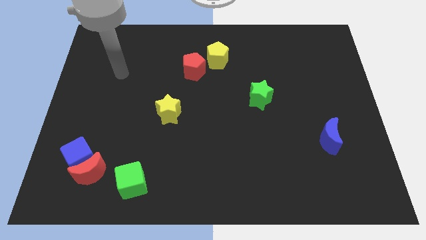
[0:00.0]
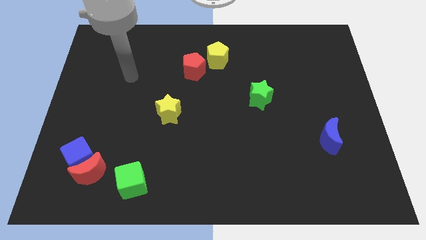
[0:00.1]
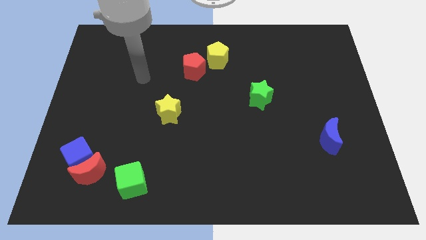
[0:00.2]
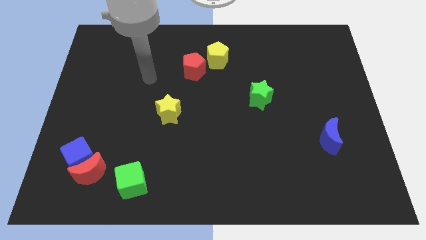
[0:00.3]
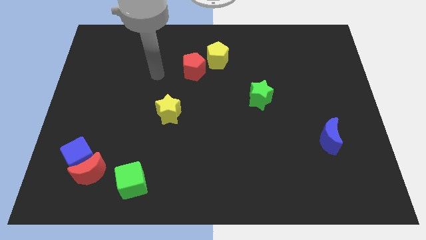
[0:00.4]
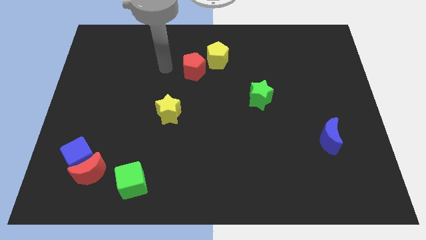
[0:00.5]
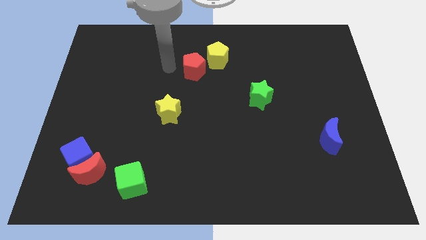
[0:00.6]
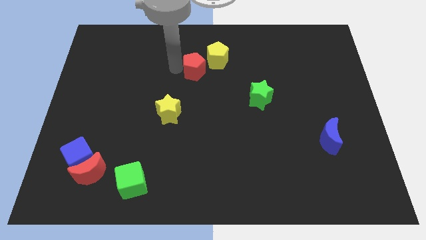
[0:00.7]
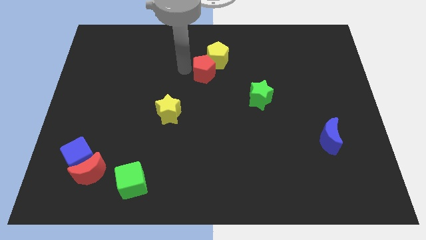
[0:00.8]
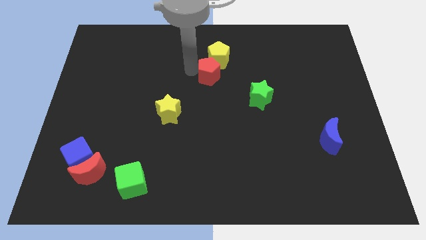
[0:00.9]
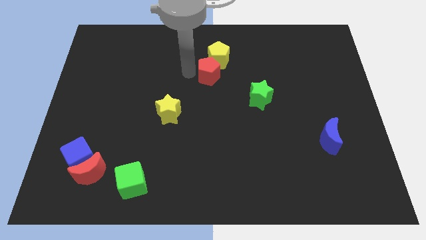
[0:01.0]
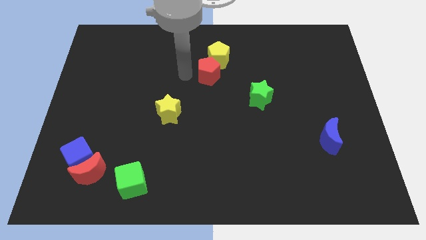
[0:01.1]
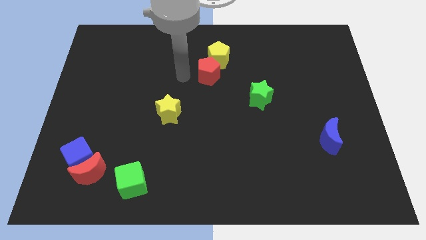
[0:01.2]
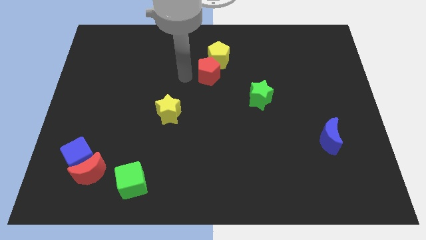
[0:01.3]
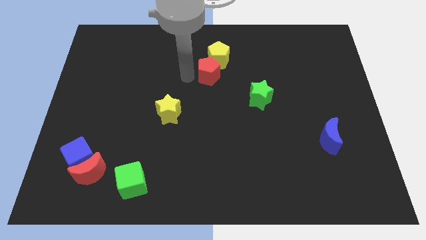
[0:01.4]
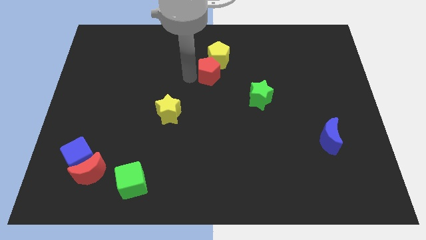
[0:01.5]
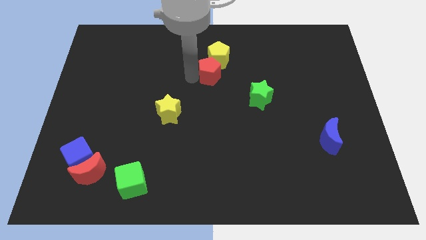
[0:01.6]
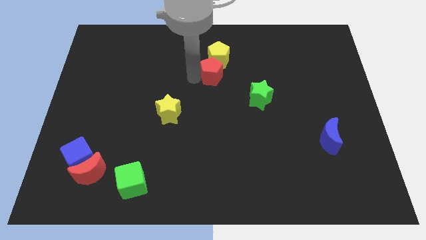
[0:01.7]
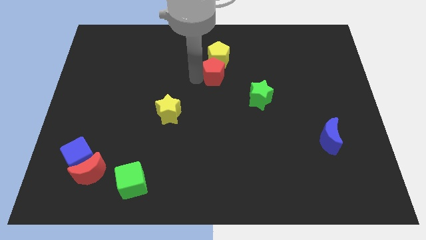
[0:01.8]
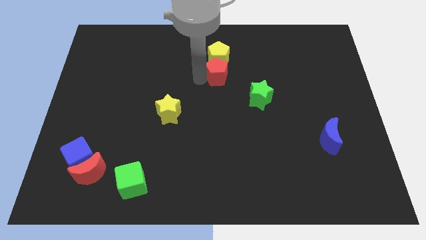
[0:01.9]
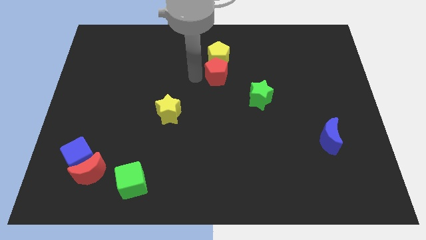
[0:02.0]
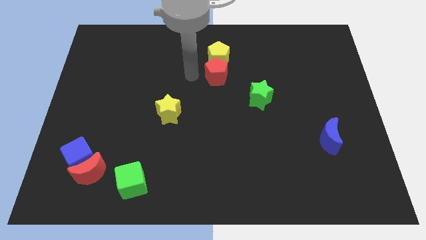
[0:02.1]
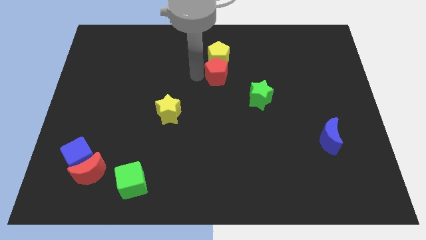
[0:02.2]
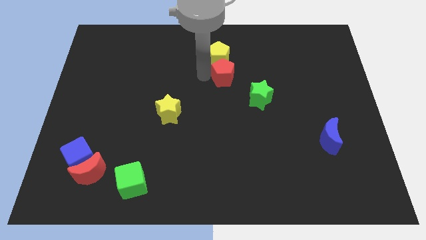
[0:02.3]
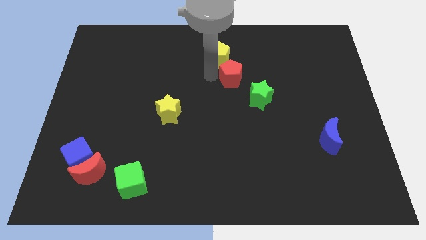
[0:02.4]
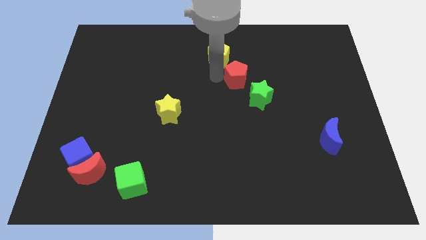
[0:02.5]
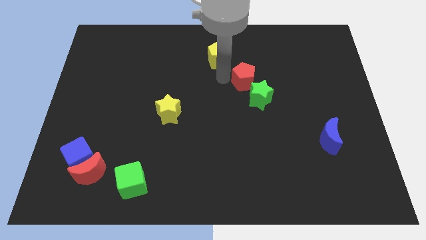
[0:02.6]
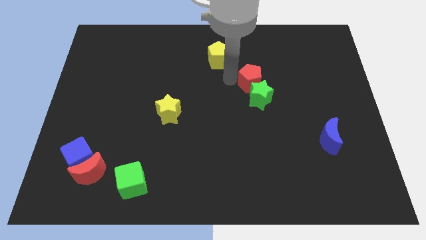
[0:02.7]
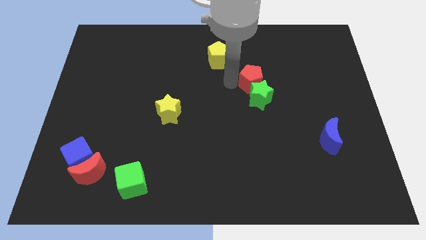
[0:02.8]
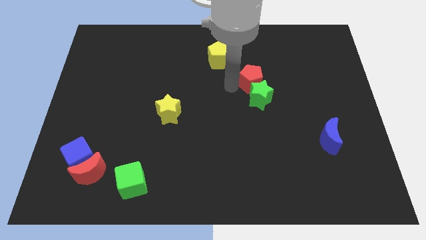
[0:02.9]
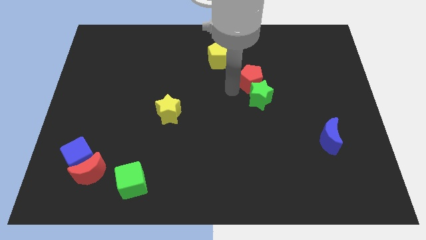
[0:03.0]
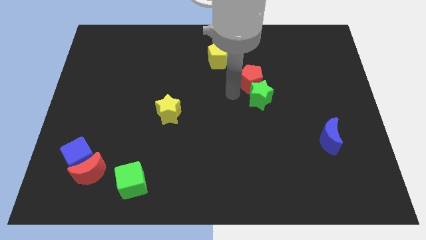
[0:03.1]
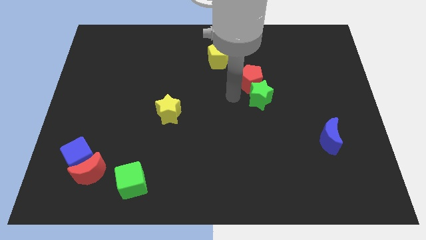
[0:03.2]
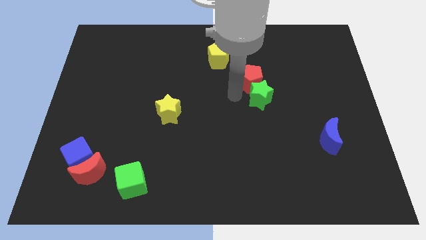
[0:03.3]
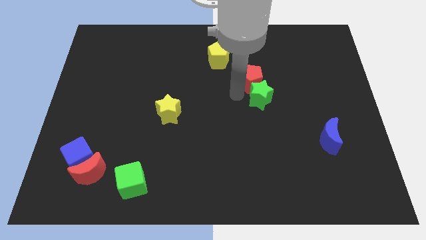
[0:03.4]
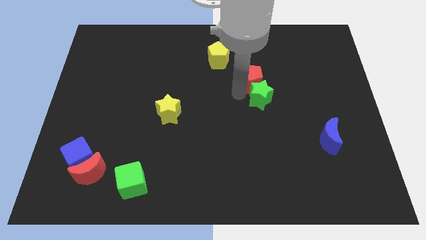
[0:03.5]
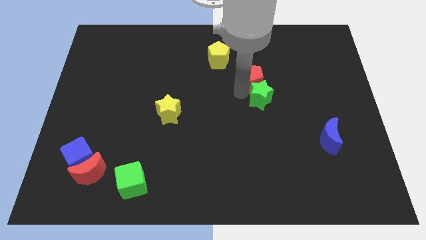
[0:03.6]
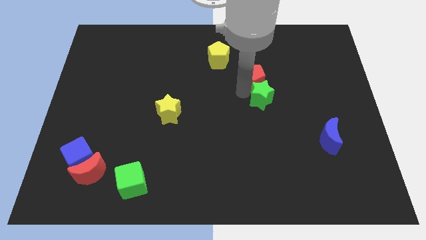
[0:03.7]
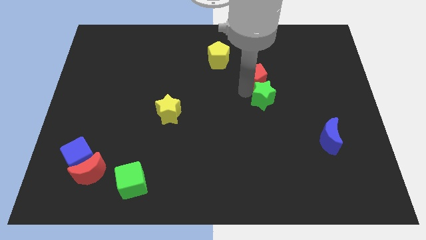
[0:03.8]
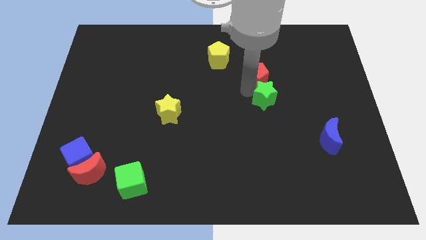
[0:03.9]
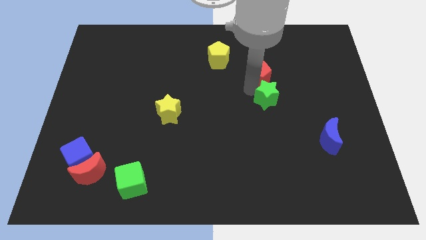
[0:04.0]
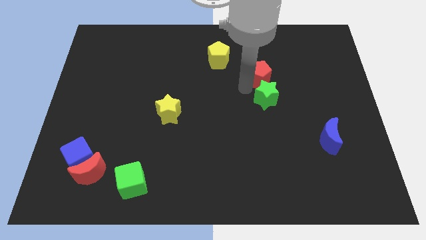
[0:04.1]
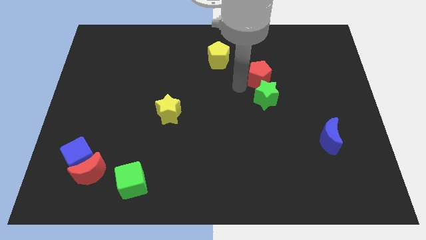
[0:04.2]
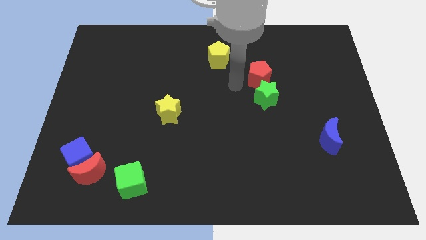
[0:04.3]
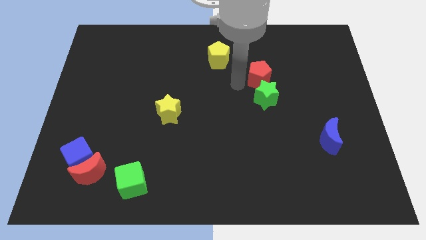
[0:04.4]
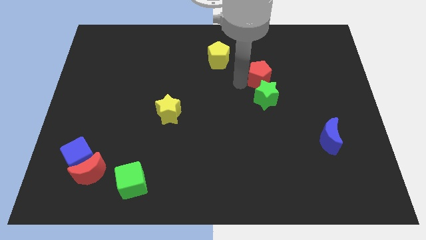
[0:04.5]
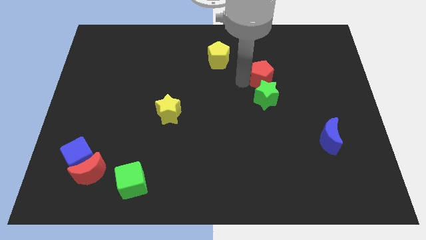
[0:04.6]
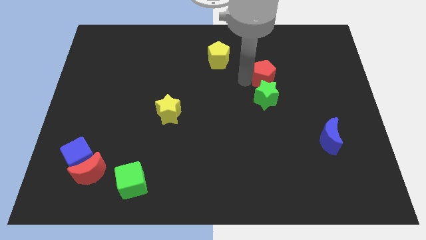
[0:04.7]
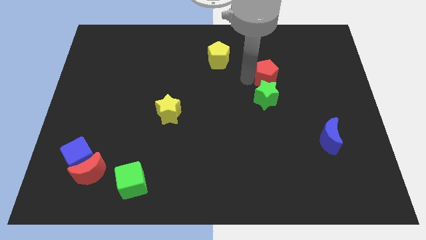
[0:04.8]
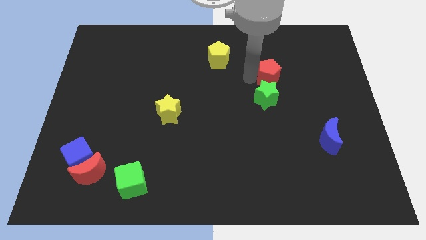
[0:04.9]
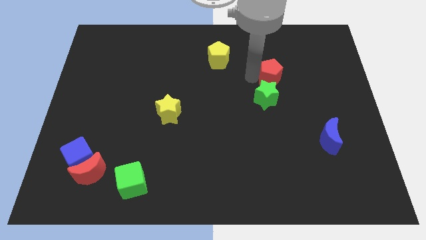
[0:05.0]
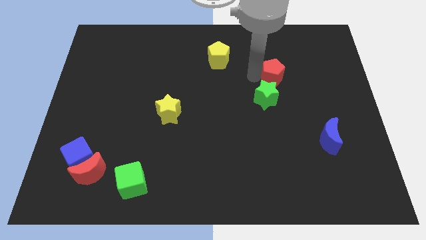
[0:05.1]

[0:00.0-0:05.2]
move the red pentagon to the right

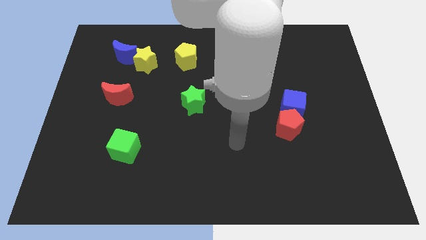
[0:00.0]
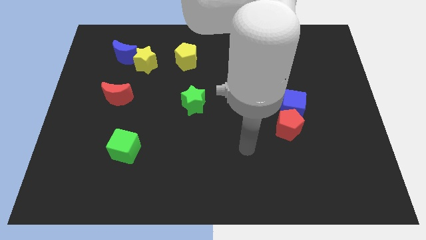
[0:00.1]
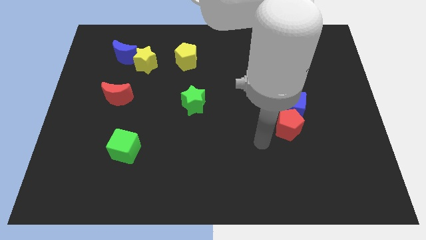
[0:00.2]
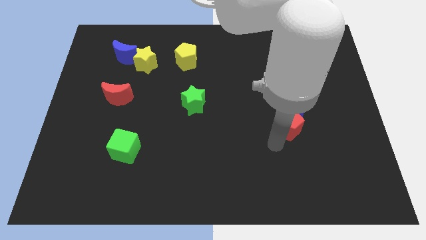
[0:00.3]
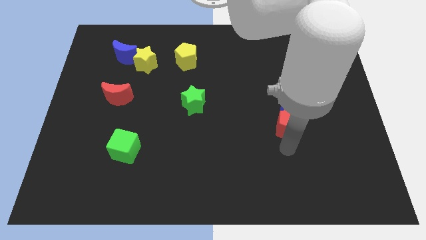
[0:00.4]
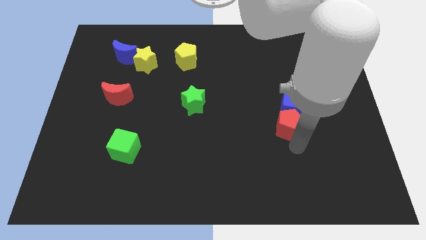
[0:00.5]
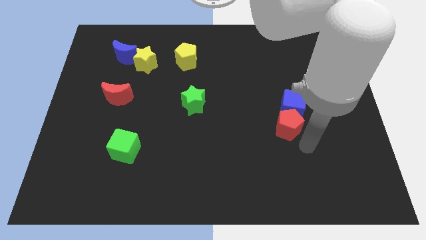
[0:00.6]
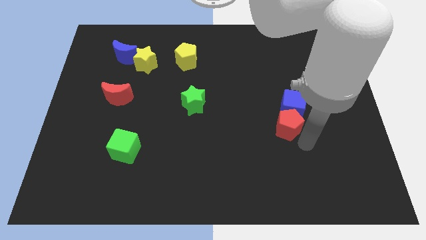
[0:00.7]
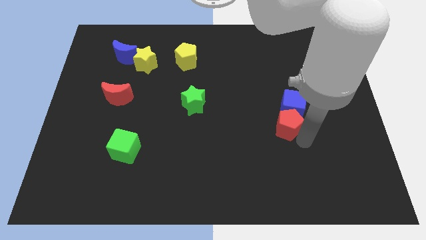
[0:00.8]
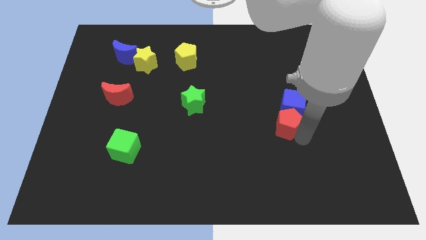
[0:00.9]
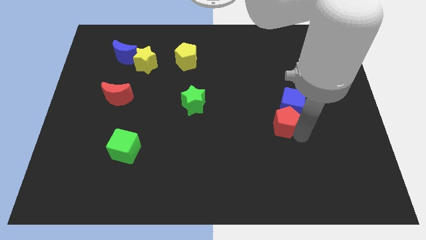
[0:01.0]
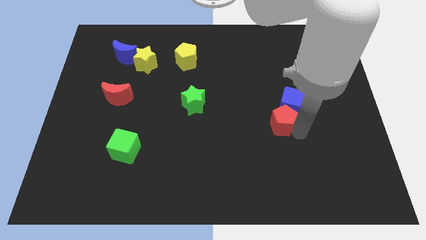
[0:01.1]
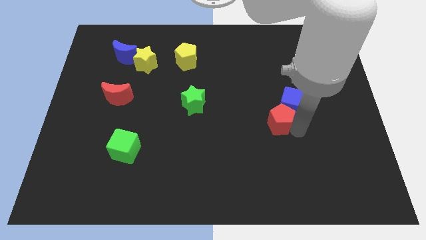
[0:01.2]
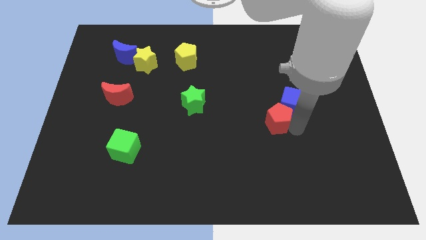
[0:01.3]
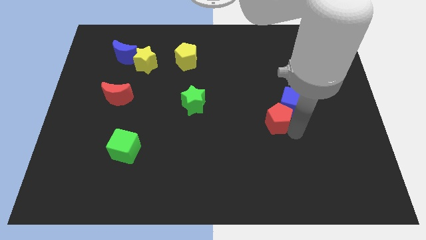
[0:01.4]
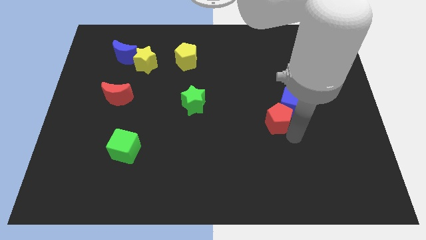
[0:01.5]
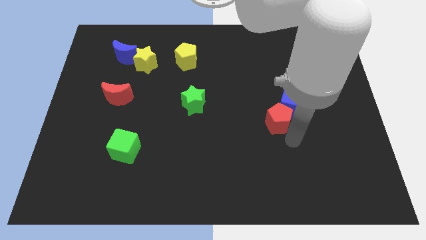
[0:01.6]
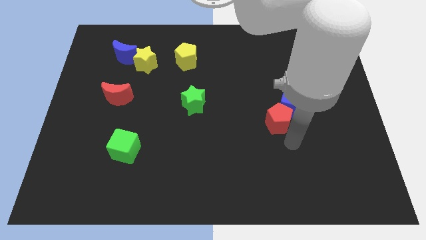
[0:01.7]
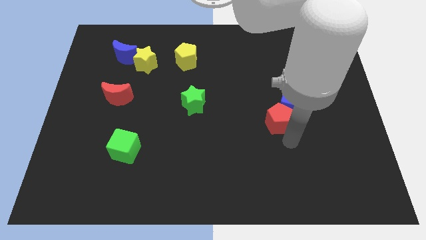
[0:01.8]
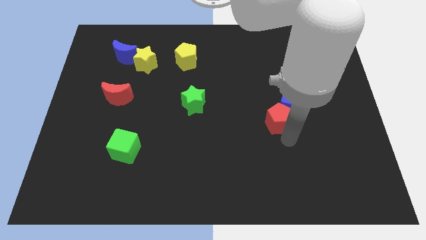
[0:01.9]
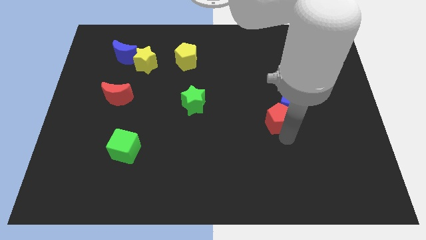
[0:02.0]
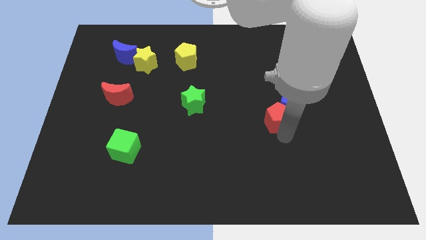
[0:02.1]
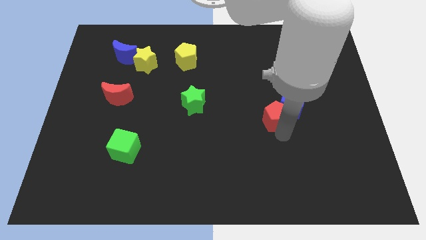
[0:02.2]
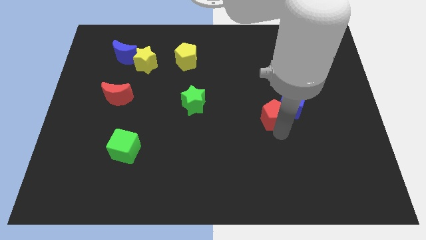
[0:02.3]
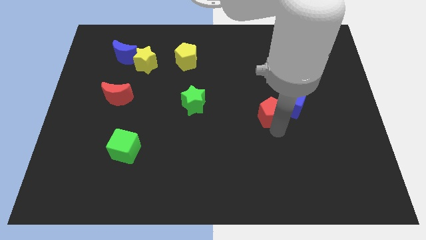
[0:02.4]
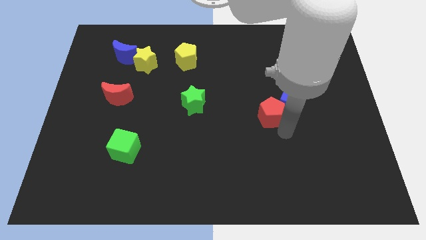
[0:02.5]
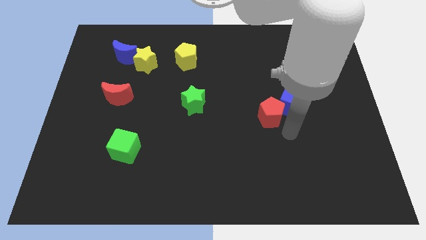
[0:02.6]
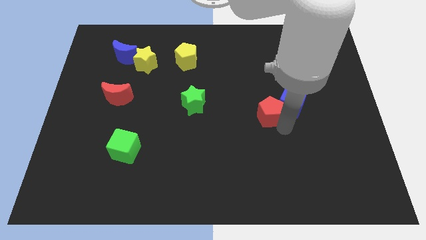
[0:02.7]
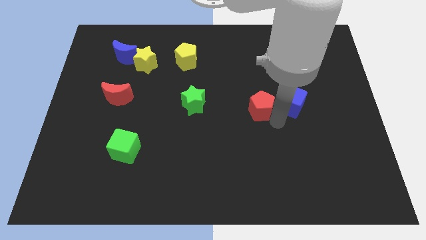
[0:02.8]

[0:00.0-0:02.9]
slightly move the red pentagon upwards and then to the left

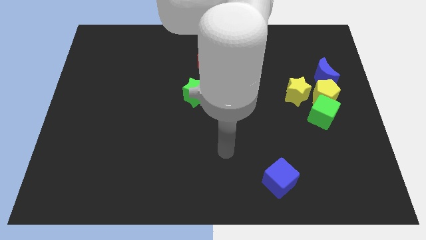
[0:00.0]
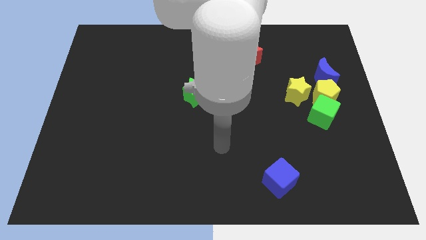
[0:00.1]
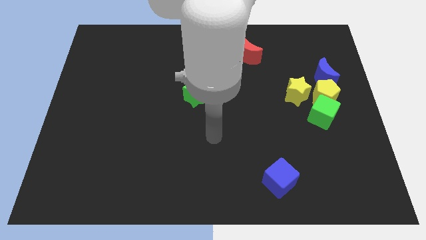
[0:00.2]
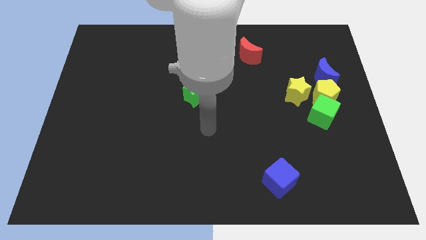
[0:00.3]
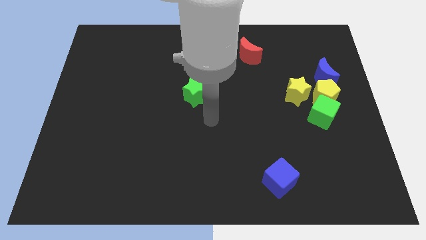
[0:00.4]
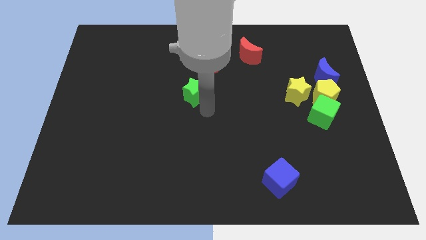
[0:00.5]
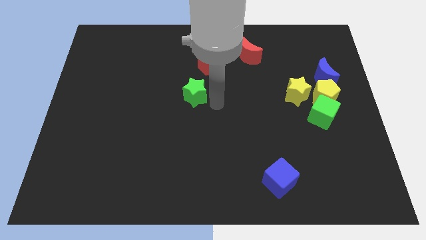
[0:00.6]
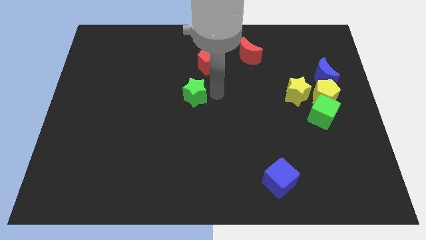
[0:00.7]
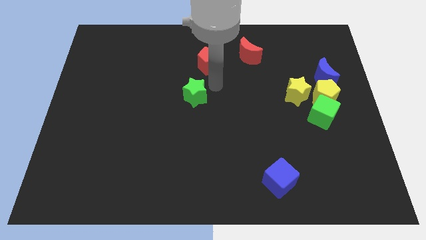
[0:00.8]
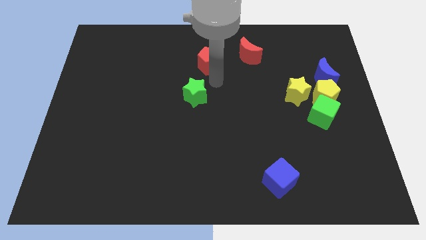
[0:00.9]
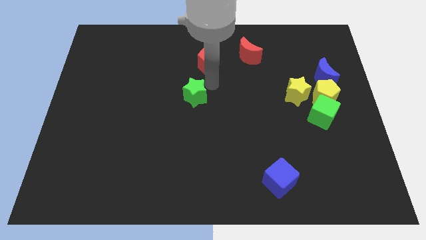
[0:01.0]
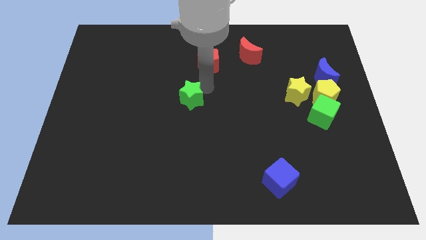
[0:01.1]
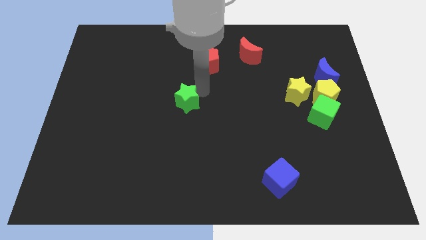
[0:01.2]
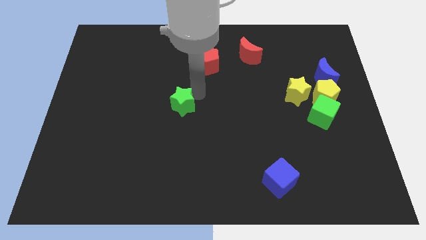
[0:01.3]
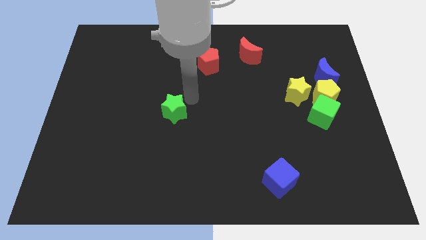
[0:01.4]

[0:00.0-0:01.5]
slide the green star a bit down and to the left
